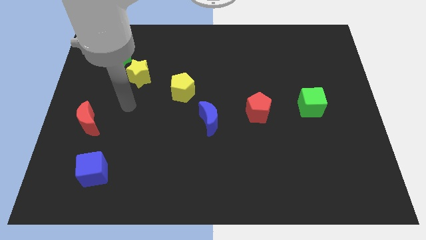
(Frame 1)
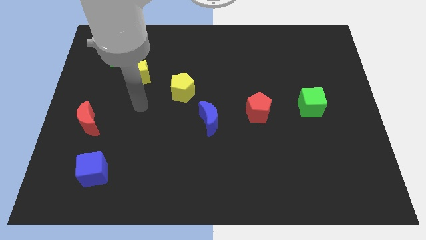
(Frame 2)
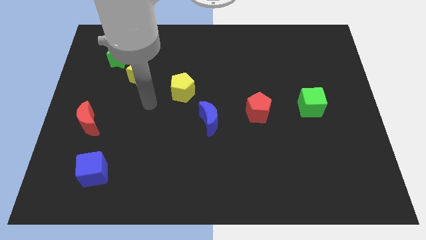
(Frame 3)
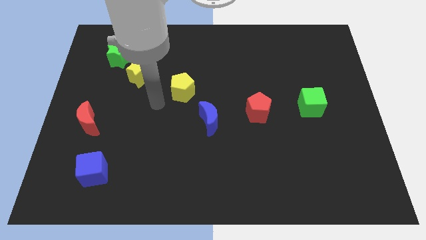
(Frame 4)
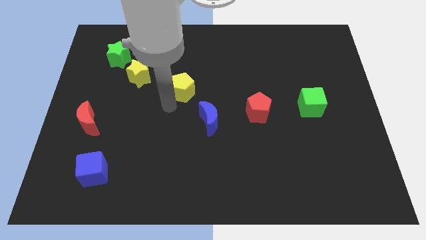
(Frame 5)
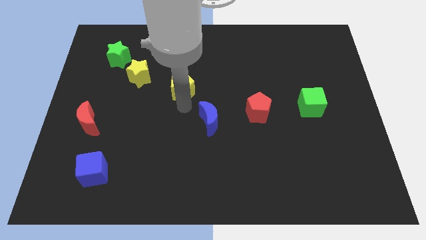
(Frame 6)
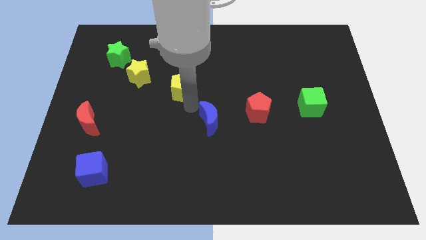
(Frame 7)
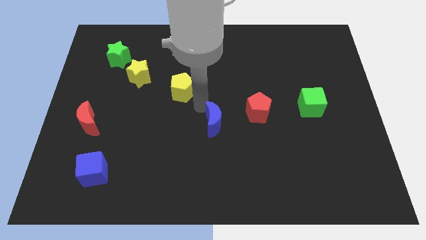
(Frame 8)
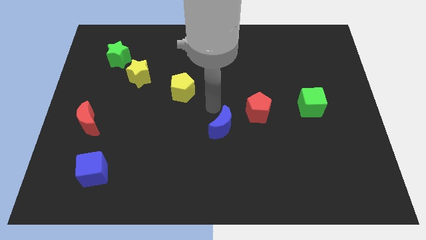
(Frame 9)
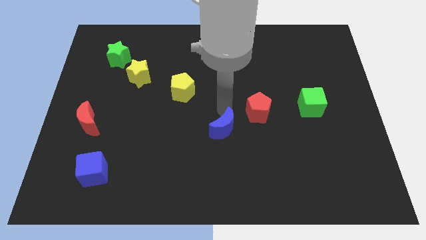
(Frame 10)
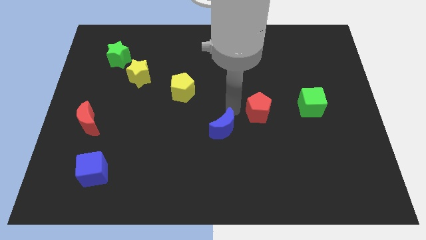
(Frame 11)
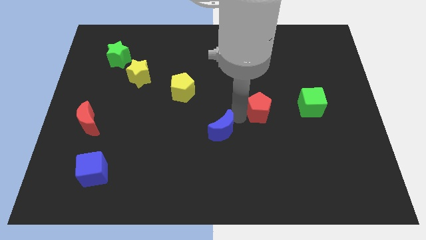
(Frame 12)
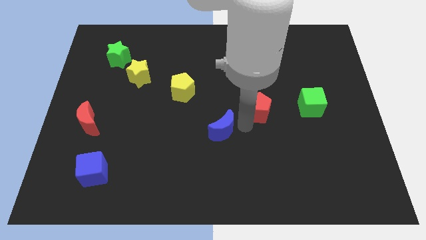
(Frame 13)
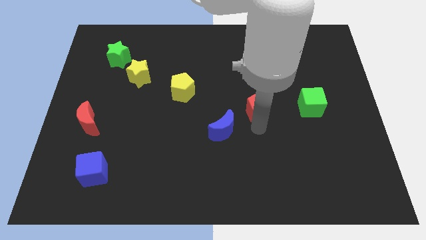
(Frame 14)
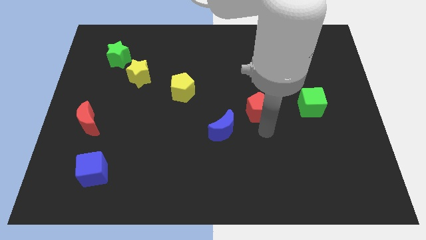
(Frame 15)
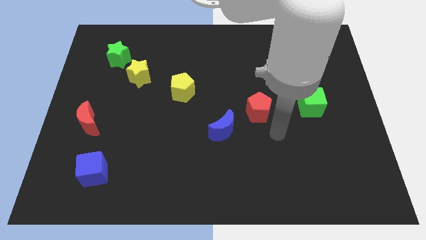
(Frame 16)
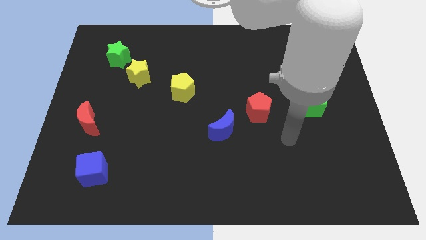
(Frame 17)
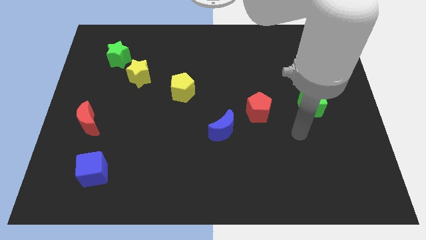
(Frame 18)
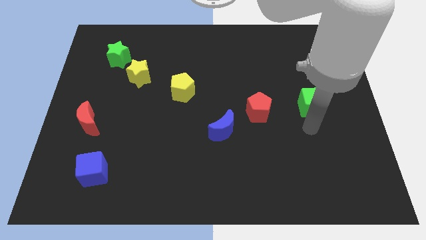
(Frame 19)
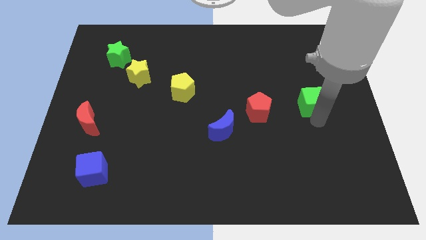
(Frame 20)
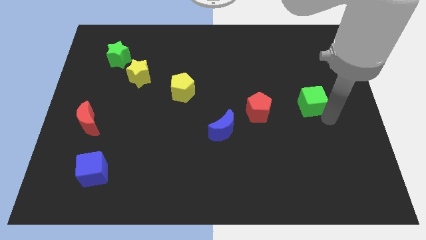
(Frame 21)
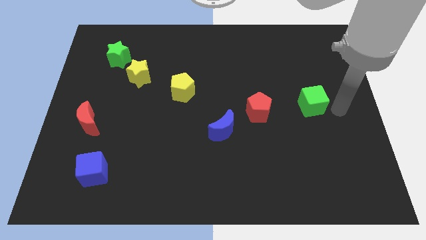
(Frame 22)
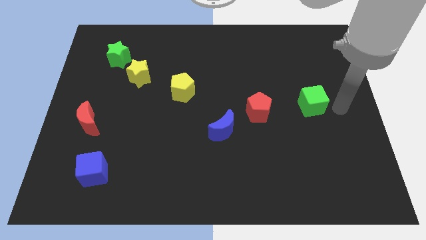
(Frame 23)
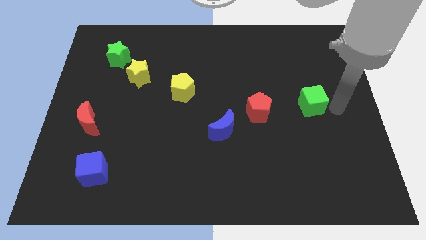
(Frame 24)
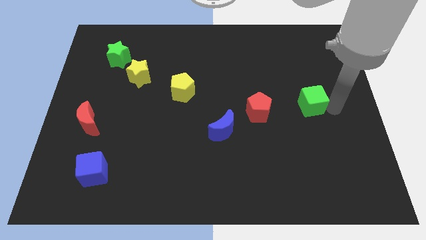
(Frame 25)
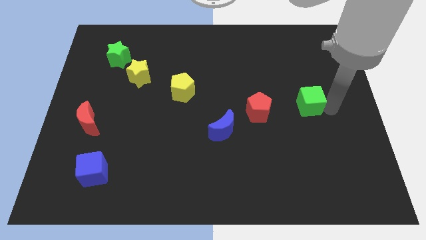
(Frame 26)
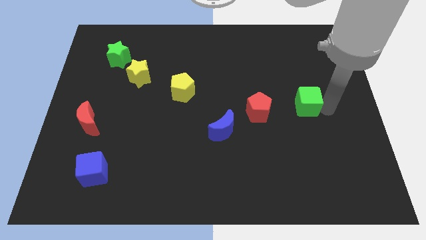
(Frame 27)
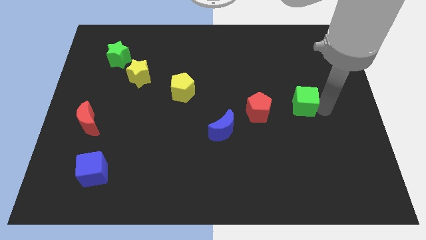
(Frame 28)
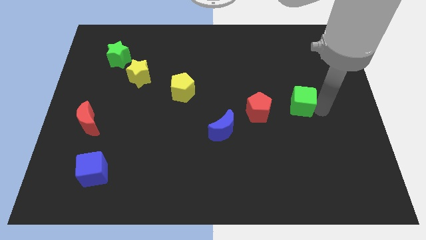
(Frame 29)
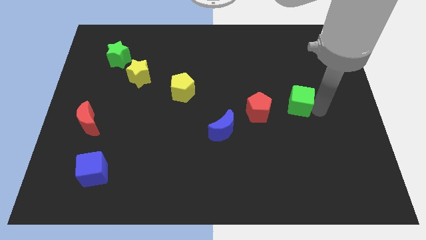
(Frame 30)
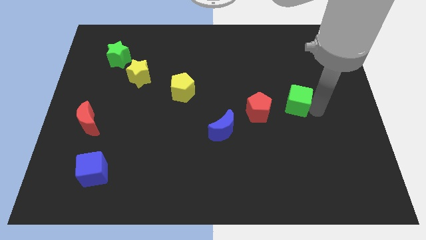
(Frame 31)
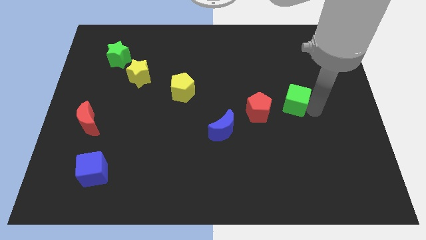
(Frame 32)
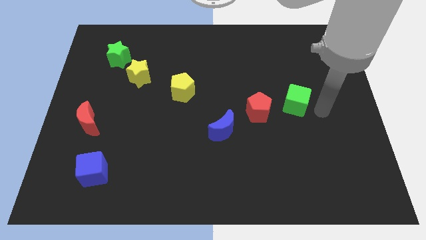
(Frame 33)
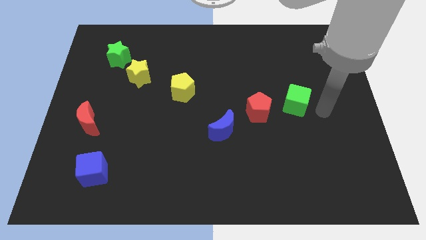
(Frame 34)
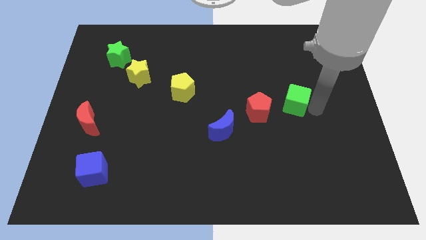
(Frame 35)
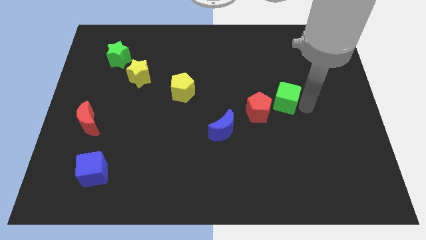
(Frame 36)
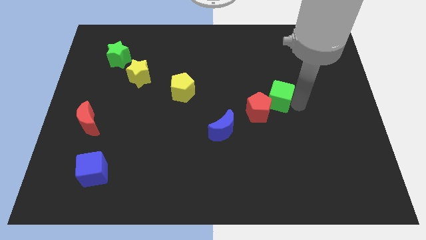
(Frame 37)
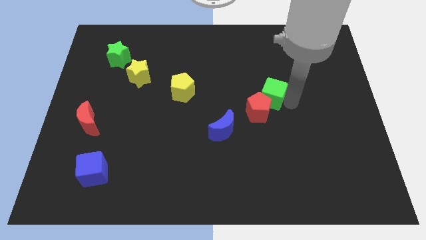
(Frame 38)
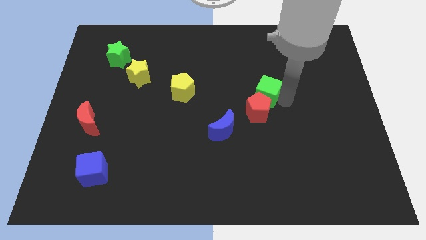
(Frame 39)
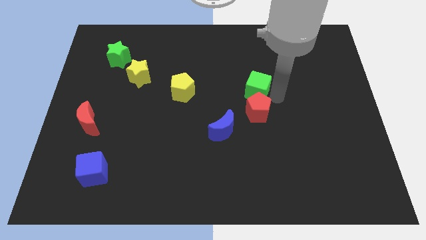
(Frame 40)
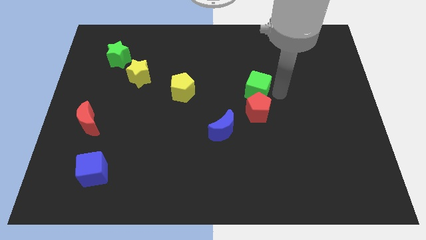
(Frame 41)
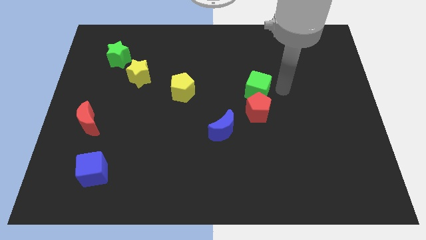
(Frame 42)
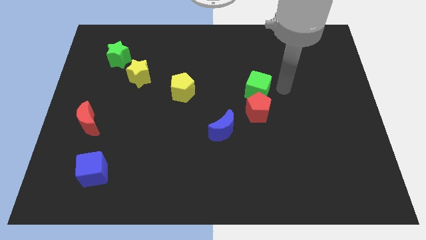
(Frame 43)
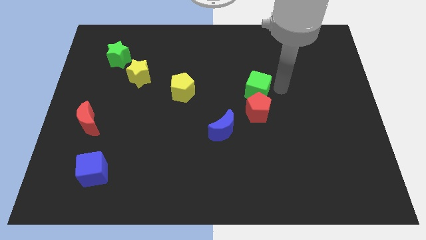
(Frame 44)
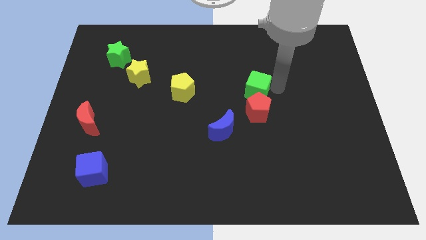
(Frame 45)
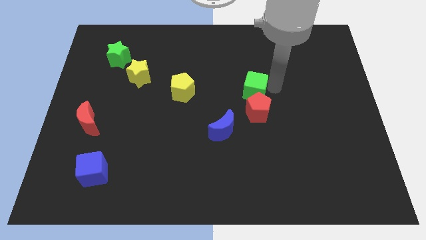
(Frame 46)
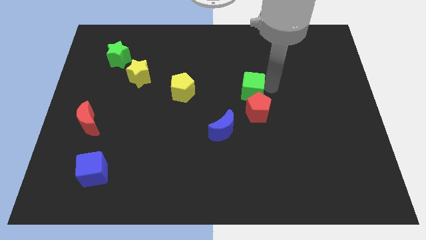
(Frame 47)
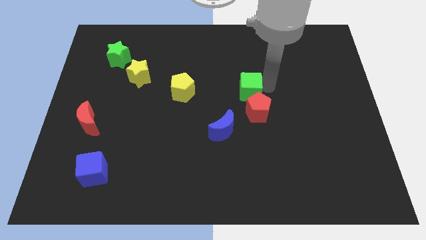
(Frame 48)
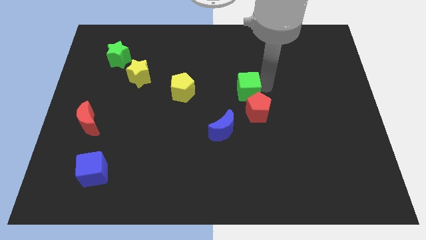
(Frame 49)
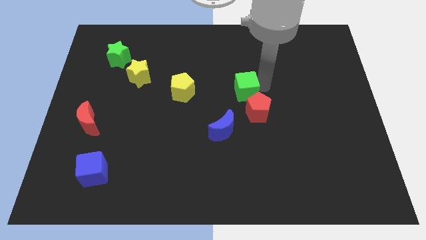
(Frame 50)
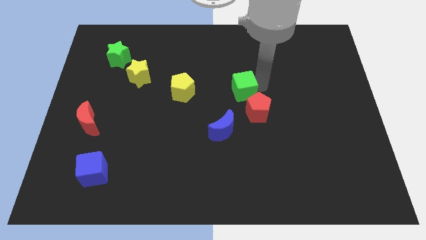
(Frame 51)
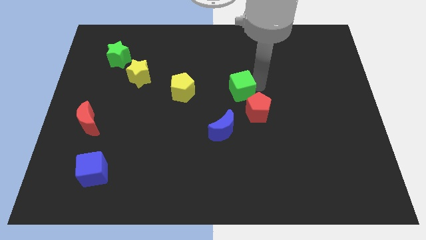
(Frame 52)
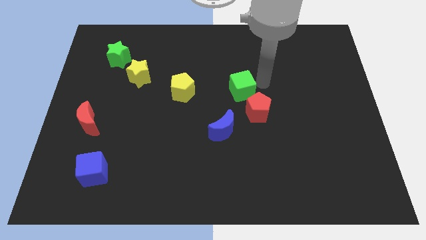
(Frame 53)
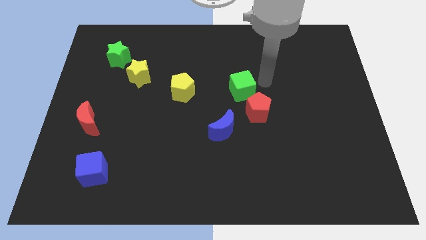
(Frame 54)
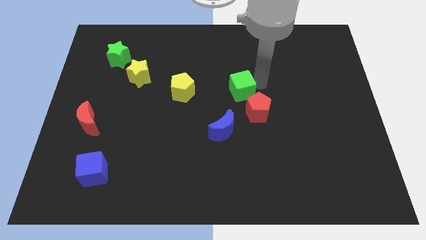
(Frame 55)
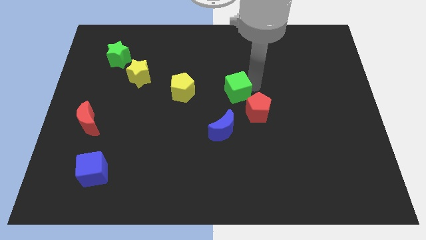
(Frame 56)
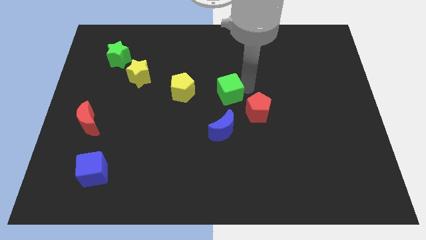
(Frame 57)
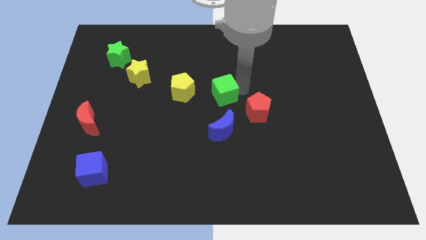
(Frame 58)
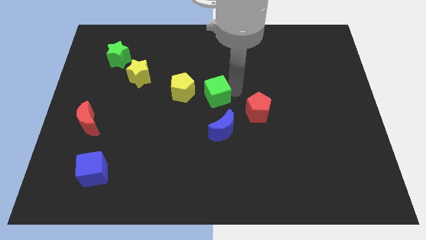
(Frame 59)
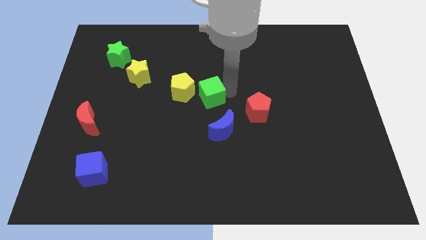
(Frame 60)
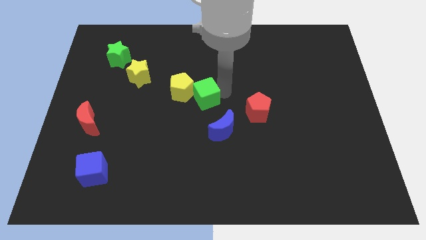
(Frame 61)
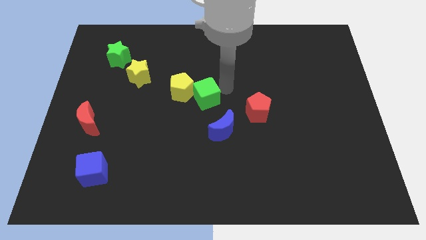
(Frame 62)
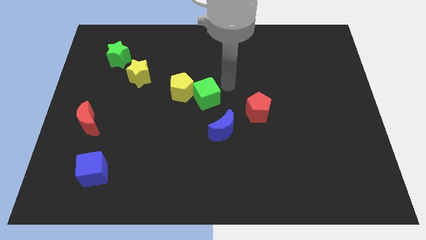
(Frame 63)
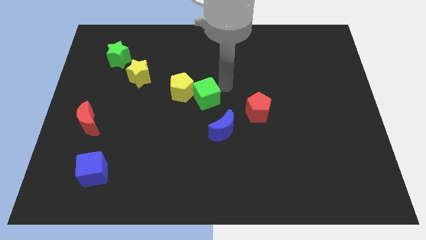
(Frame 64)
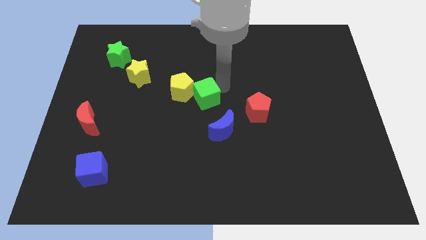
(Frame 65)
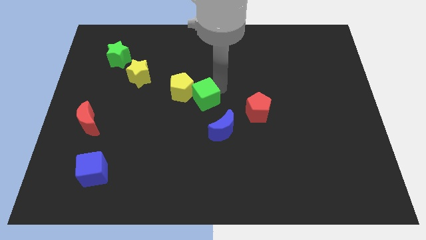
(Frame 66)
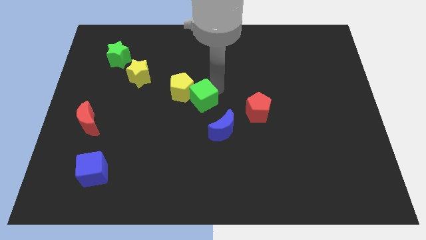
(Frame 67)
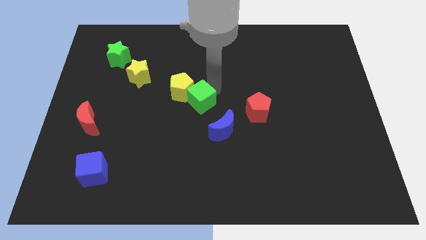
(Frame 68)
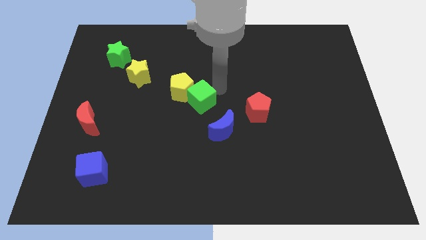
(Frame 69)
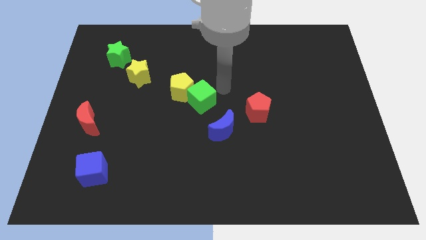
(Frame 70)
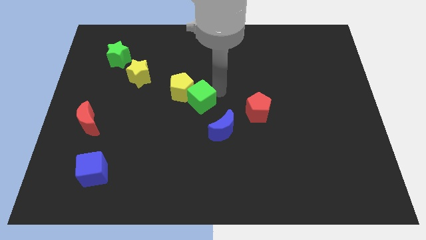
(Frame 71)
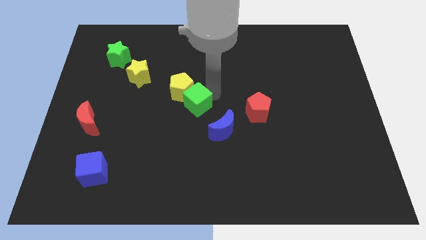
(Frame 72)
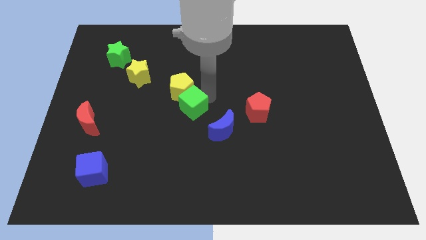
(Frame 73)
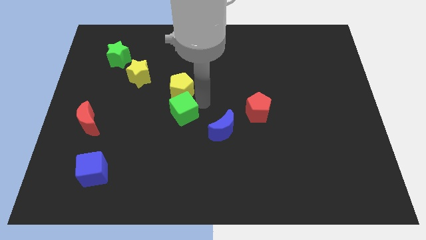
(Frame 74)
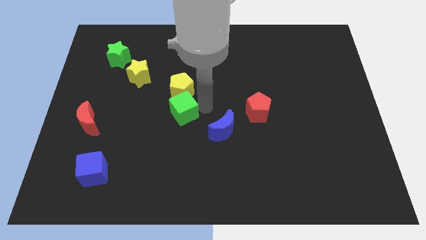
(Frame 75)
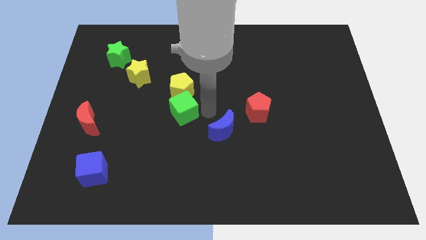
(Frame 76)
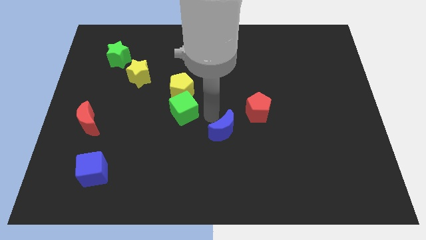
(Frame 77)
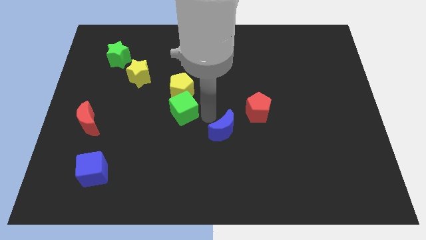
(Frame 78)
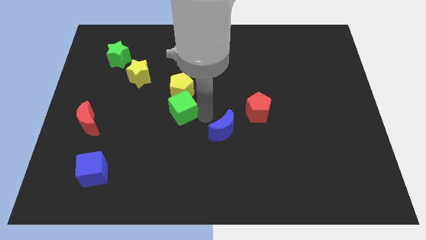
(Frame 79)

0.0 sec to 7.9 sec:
slide the green cube diagonally down and to the left of the yellow pentagon
